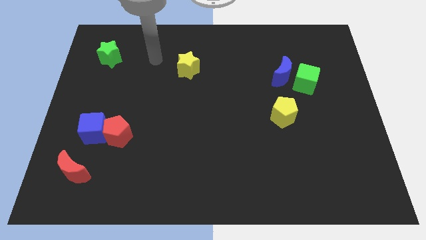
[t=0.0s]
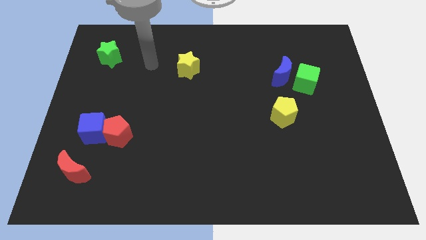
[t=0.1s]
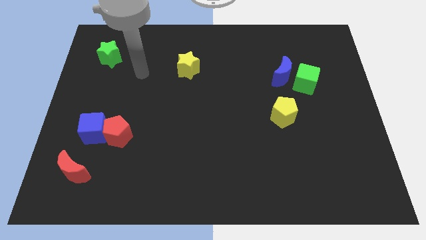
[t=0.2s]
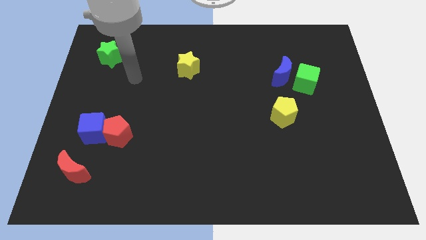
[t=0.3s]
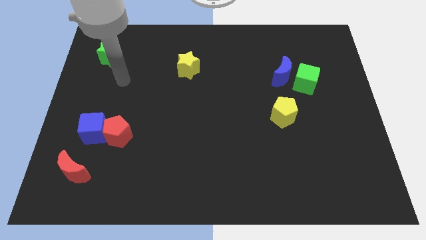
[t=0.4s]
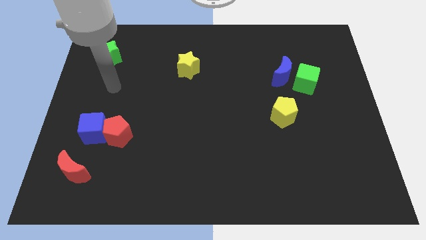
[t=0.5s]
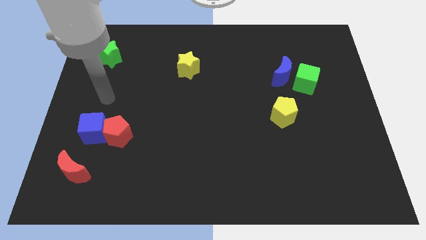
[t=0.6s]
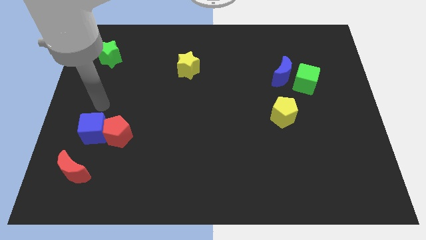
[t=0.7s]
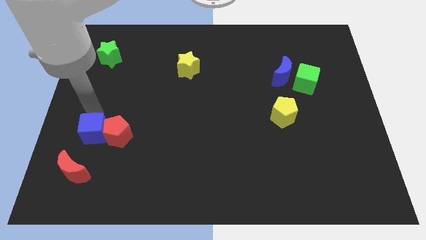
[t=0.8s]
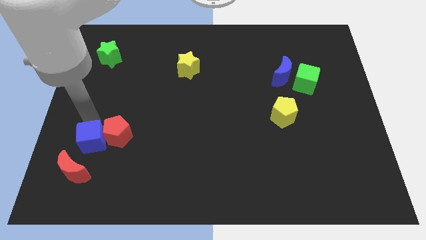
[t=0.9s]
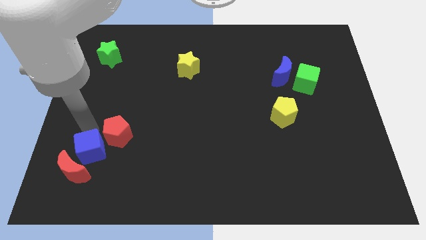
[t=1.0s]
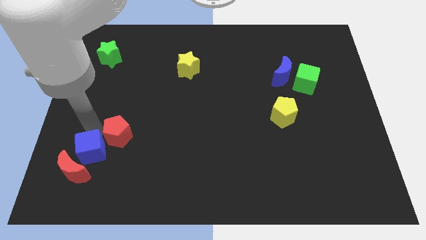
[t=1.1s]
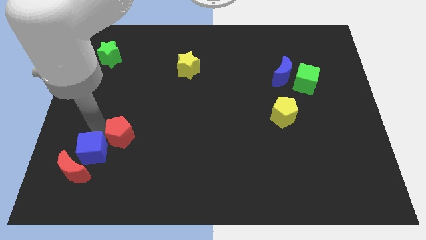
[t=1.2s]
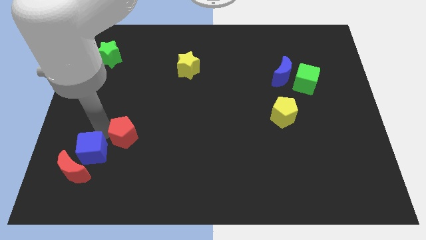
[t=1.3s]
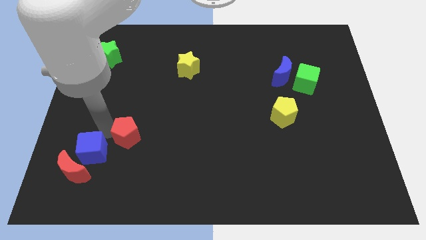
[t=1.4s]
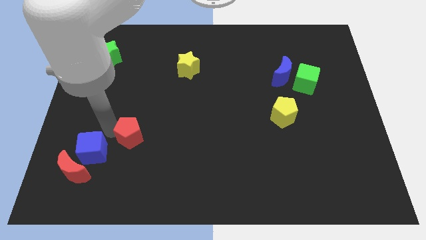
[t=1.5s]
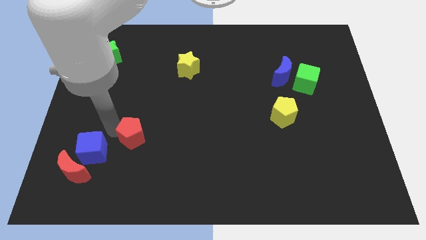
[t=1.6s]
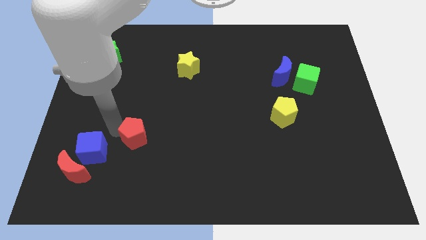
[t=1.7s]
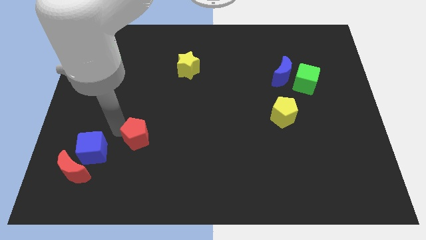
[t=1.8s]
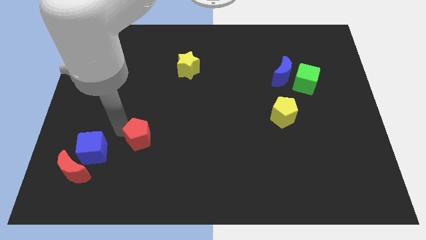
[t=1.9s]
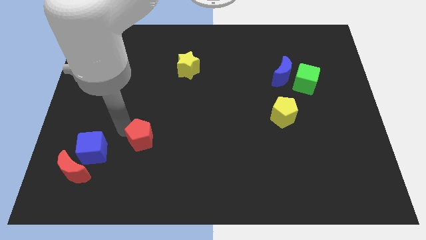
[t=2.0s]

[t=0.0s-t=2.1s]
move the red pentagon away from the blue cube

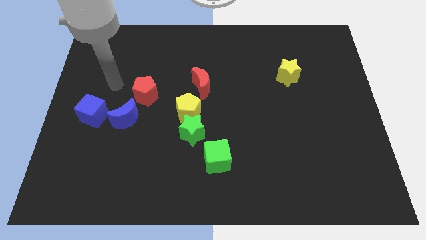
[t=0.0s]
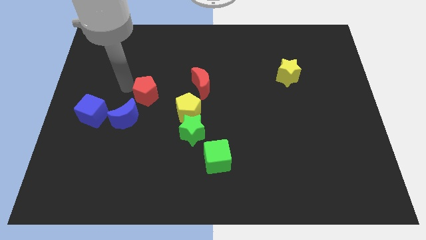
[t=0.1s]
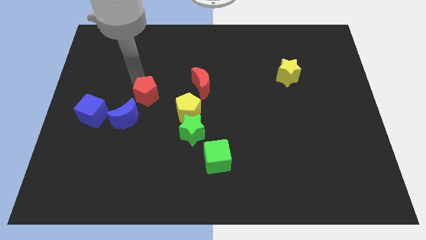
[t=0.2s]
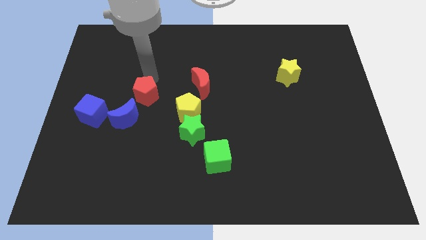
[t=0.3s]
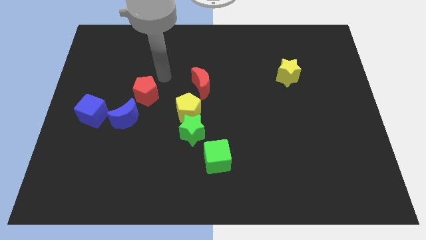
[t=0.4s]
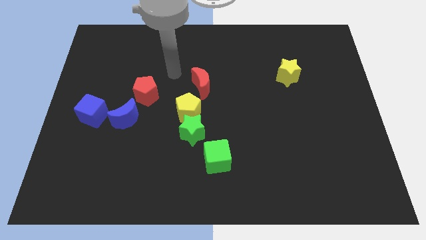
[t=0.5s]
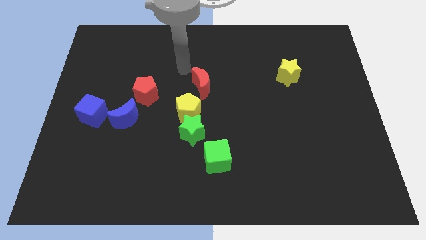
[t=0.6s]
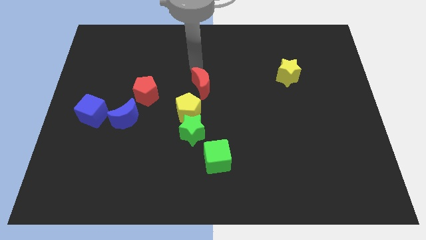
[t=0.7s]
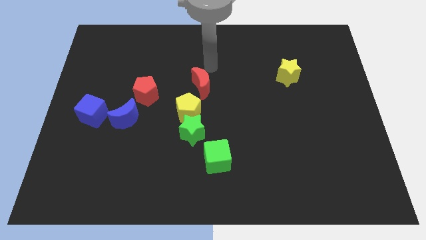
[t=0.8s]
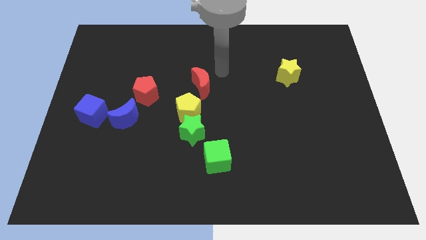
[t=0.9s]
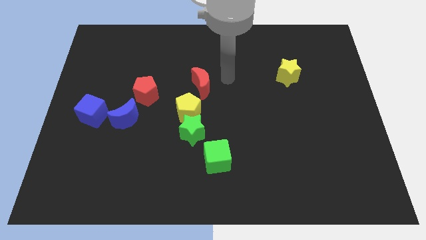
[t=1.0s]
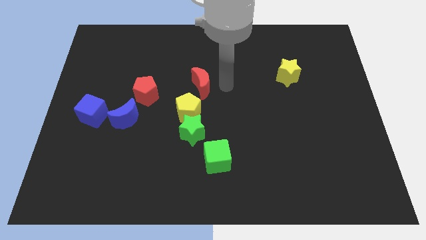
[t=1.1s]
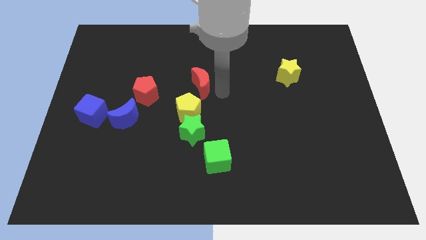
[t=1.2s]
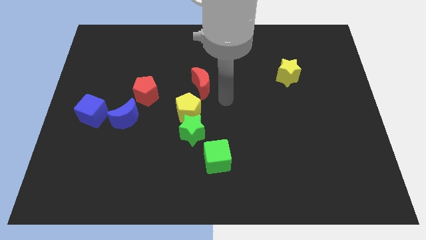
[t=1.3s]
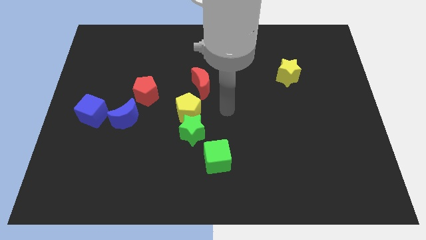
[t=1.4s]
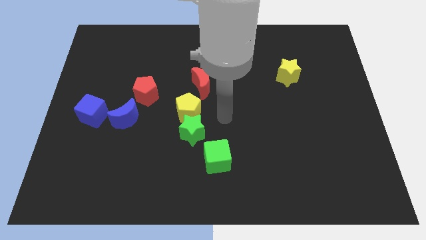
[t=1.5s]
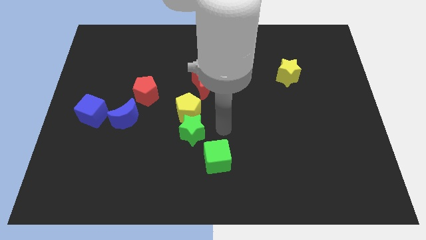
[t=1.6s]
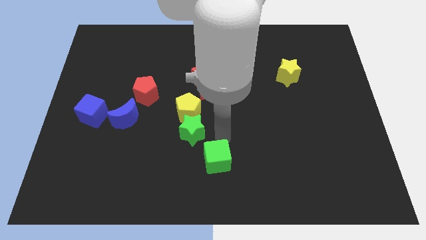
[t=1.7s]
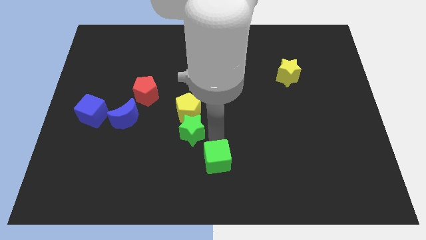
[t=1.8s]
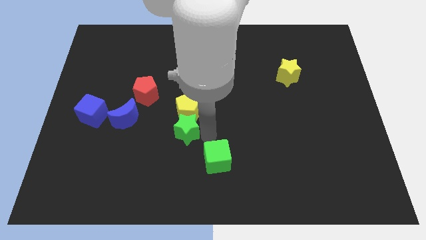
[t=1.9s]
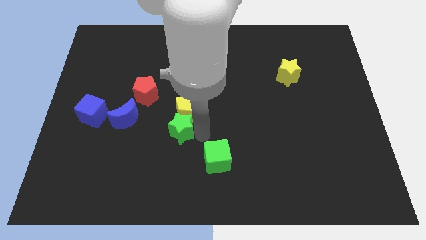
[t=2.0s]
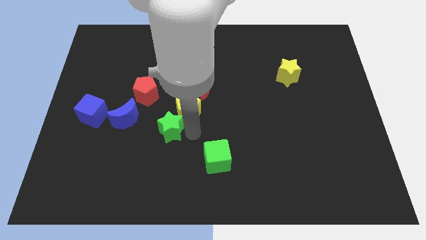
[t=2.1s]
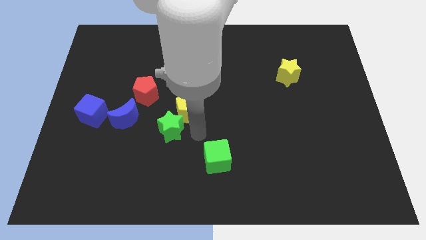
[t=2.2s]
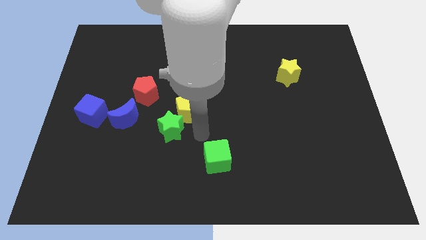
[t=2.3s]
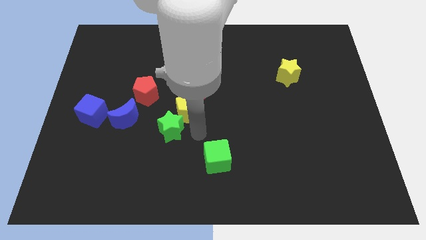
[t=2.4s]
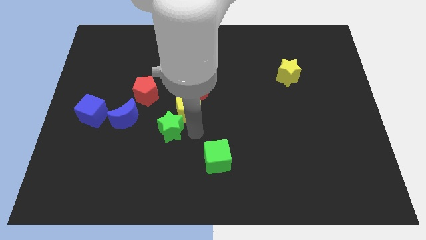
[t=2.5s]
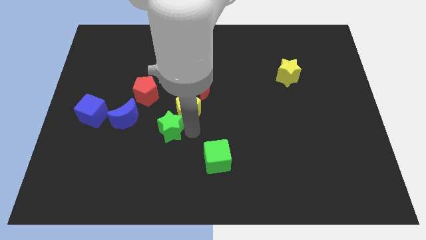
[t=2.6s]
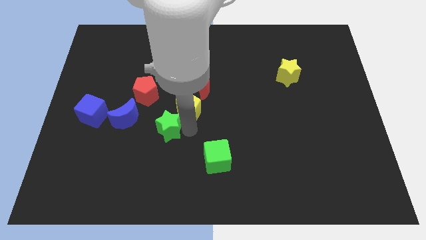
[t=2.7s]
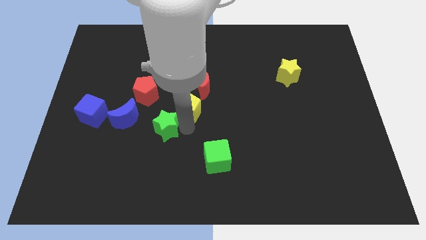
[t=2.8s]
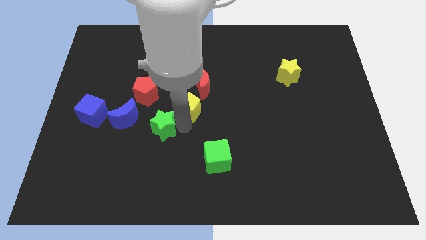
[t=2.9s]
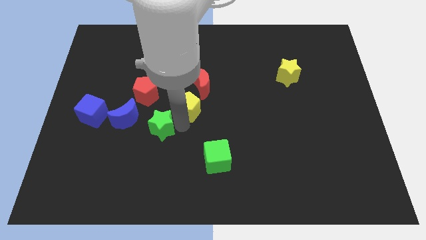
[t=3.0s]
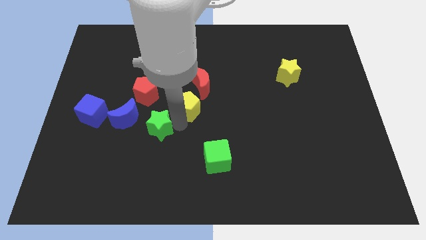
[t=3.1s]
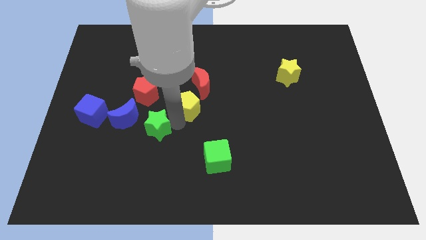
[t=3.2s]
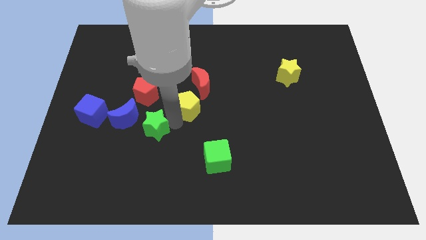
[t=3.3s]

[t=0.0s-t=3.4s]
move the green star away from the yellow pentagon and green cube

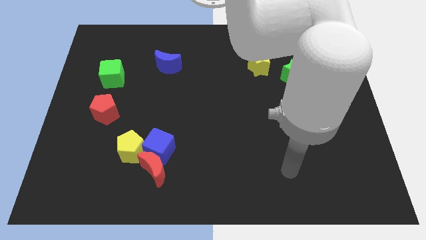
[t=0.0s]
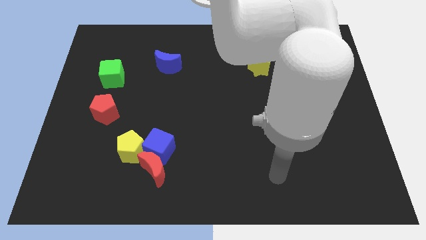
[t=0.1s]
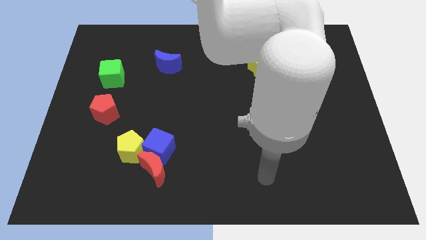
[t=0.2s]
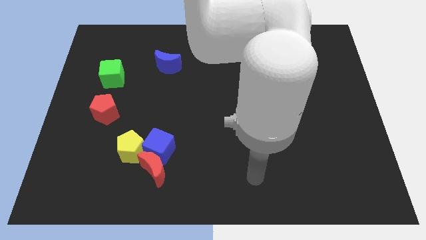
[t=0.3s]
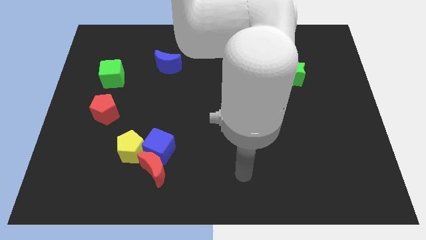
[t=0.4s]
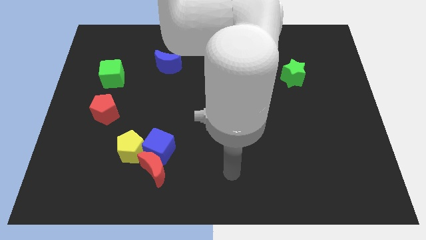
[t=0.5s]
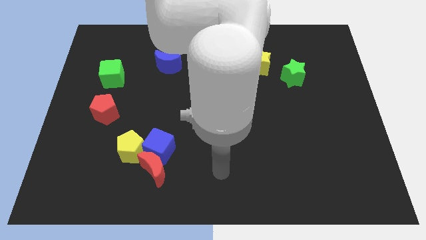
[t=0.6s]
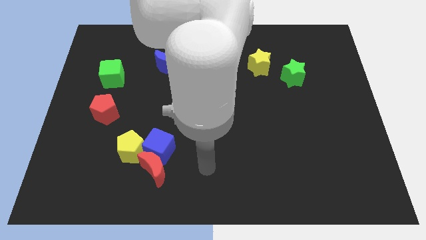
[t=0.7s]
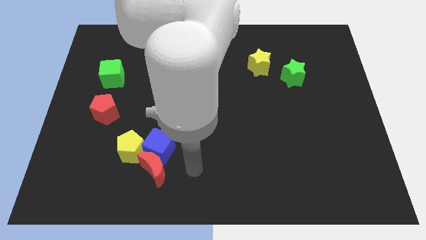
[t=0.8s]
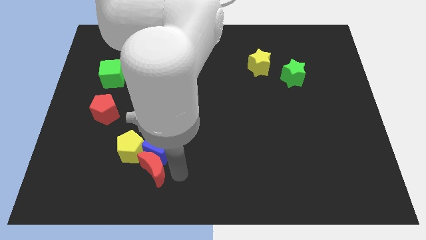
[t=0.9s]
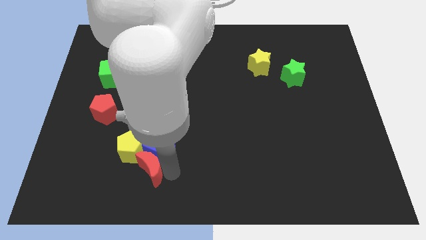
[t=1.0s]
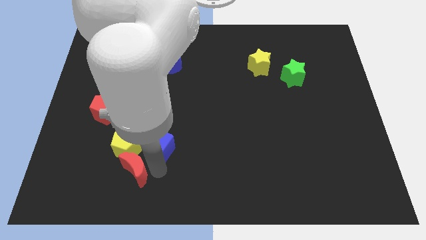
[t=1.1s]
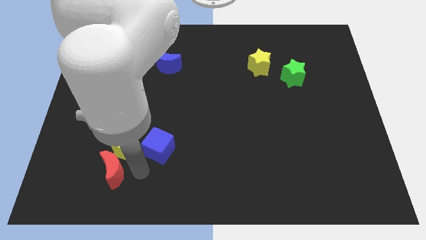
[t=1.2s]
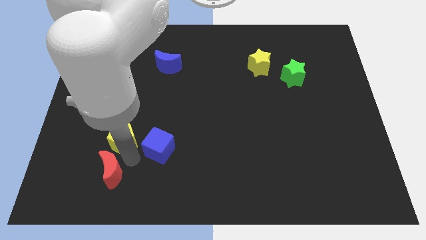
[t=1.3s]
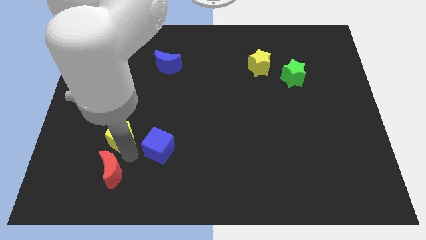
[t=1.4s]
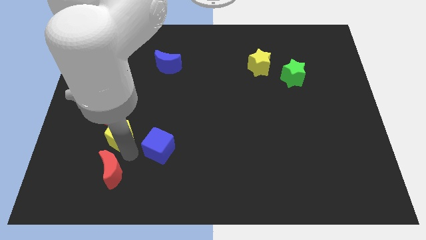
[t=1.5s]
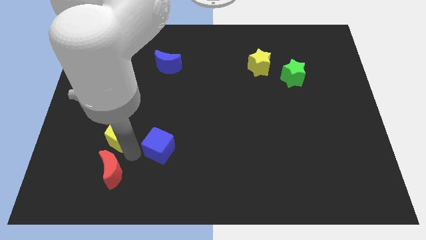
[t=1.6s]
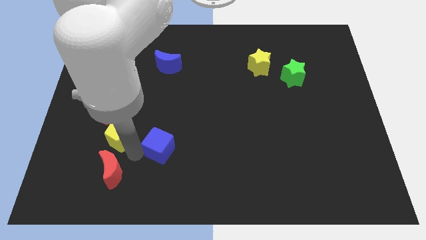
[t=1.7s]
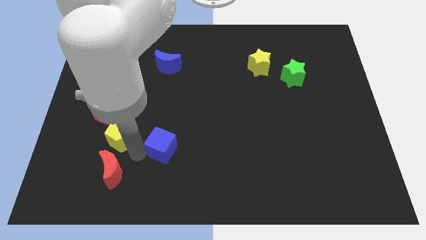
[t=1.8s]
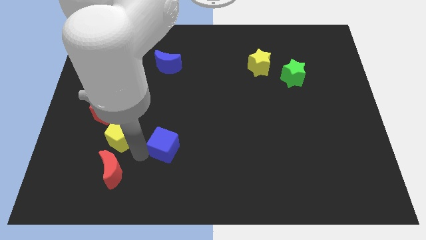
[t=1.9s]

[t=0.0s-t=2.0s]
separate the blue cube from the red moon and yellow pentagon

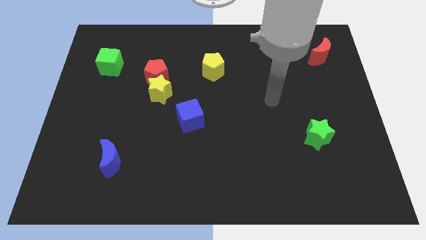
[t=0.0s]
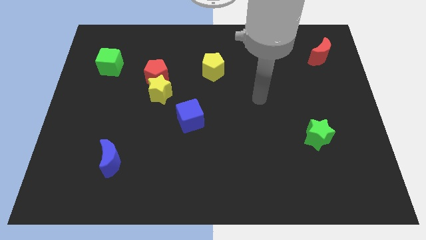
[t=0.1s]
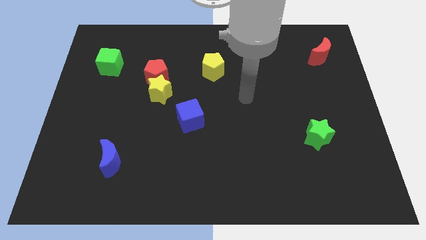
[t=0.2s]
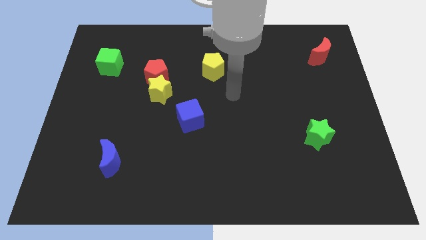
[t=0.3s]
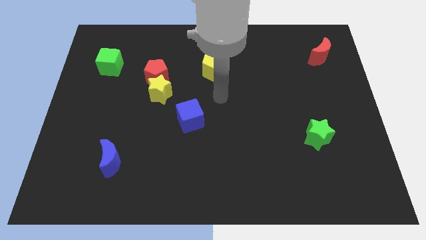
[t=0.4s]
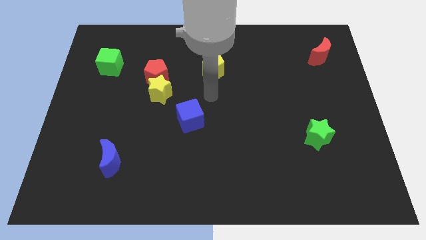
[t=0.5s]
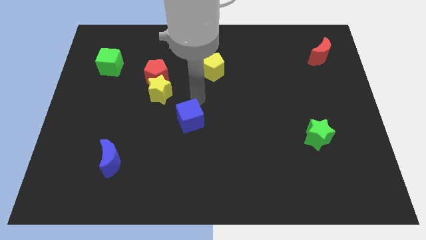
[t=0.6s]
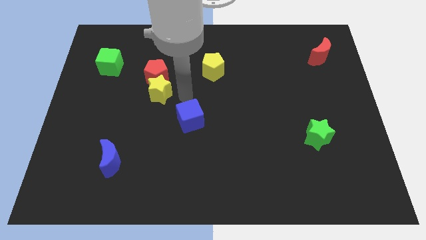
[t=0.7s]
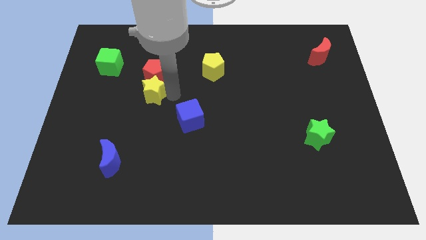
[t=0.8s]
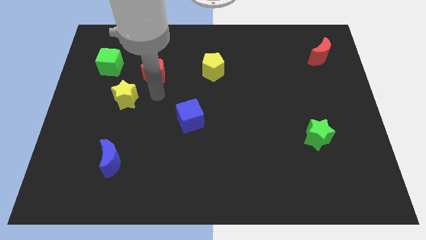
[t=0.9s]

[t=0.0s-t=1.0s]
separate the red pentagon from the yellow star

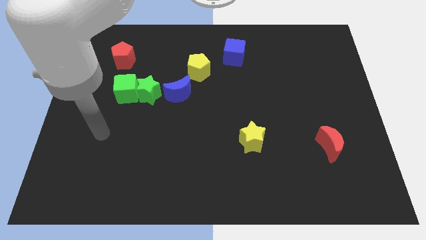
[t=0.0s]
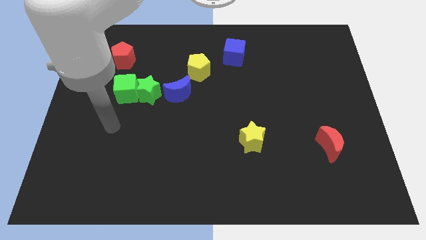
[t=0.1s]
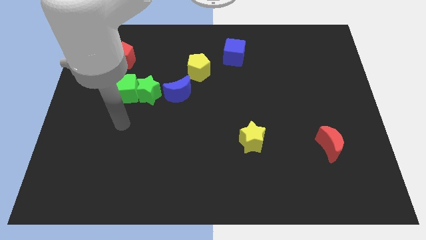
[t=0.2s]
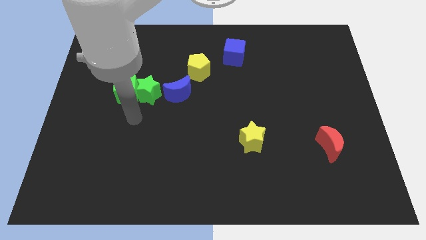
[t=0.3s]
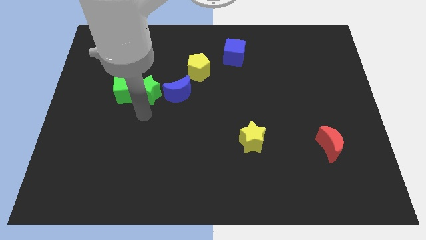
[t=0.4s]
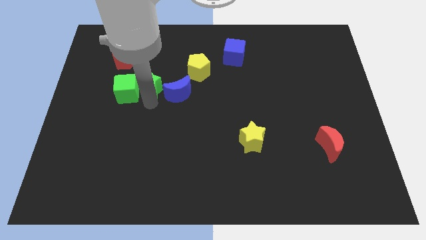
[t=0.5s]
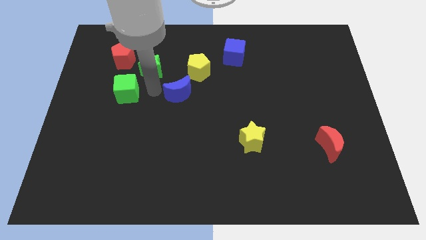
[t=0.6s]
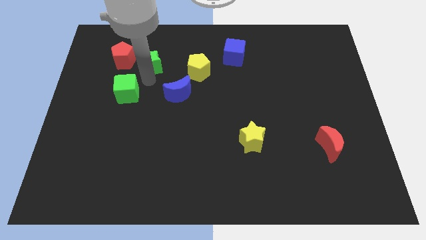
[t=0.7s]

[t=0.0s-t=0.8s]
pull the green cube apart from the green star
